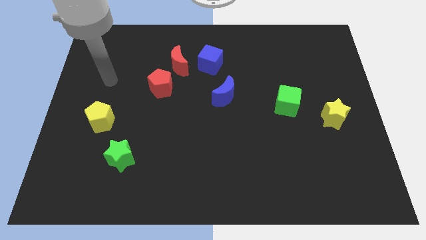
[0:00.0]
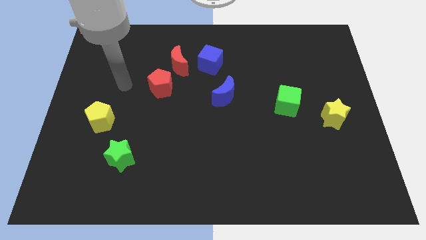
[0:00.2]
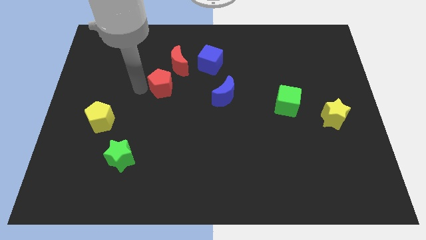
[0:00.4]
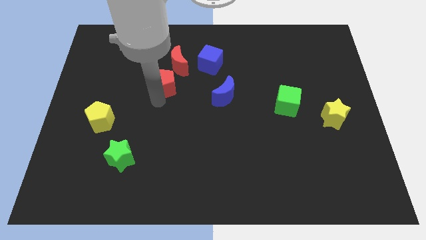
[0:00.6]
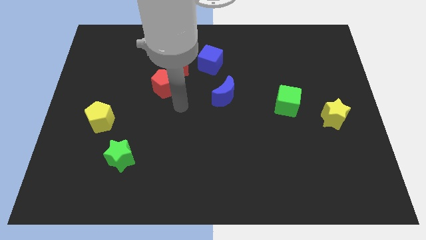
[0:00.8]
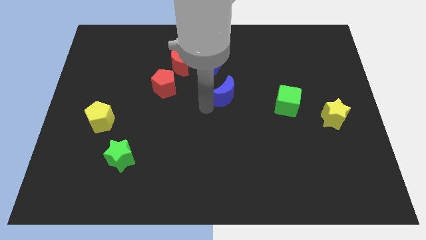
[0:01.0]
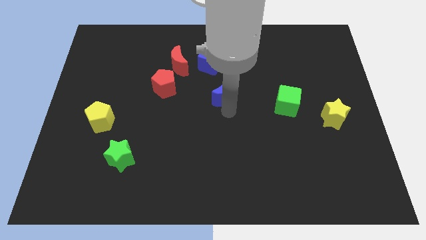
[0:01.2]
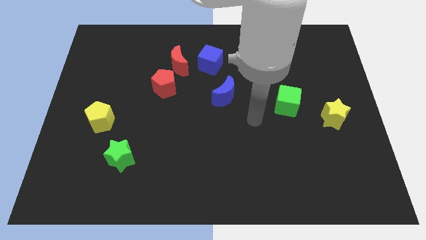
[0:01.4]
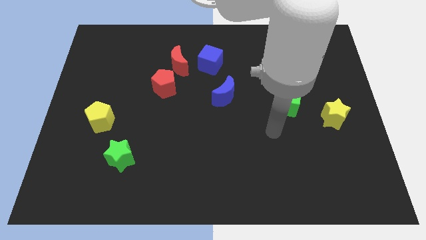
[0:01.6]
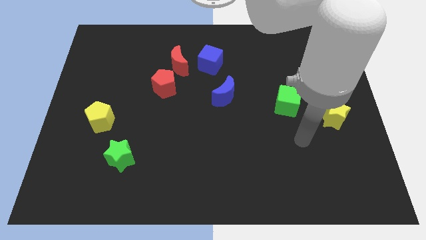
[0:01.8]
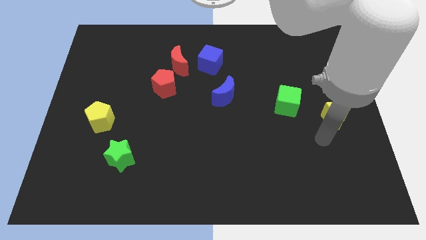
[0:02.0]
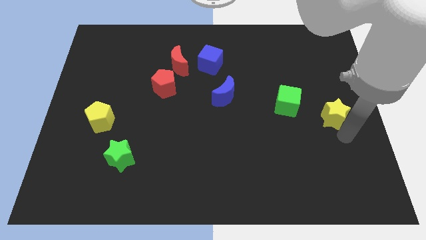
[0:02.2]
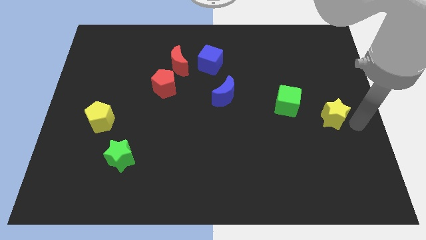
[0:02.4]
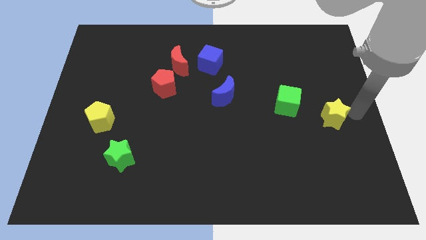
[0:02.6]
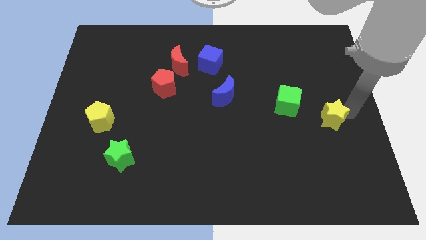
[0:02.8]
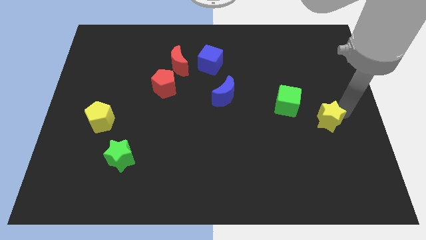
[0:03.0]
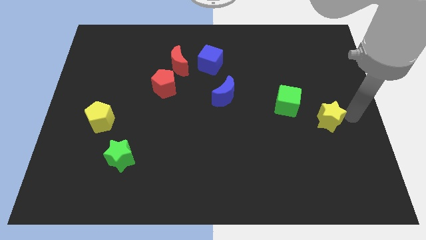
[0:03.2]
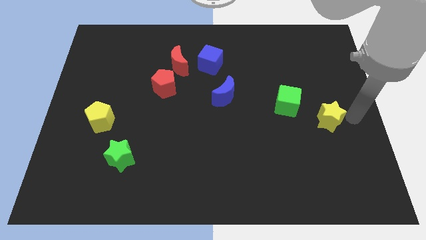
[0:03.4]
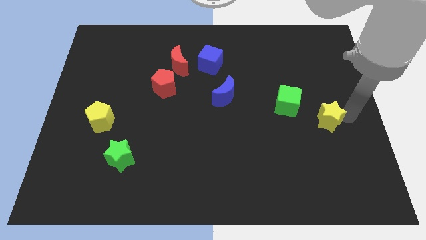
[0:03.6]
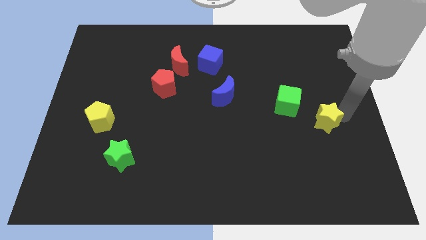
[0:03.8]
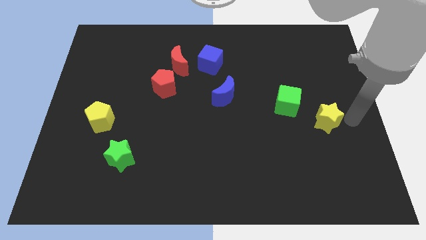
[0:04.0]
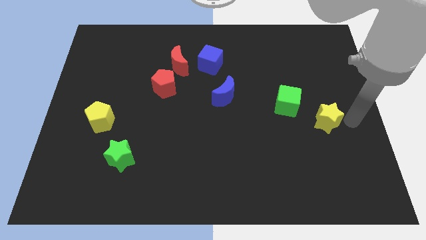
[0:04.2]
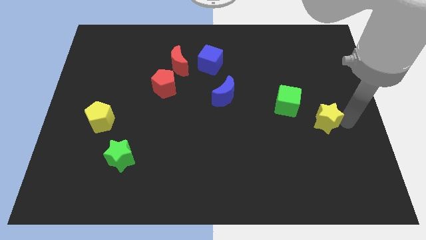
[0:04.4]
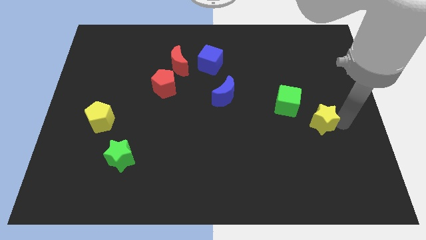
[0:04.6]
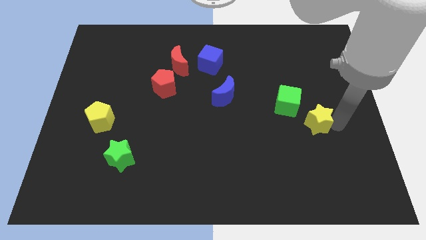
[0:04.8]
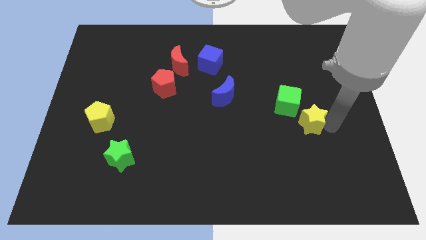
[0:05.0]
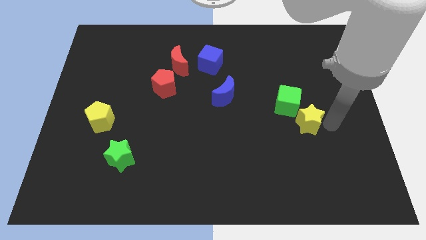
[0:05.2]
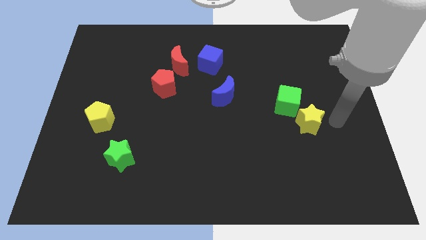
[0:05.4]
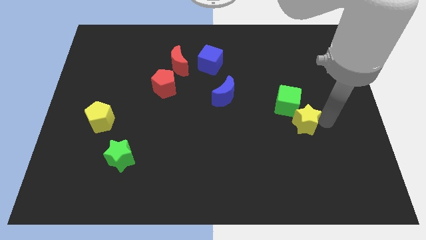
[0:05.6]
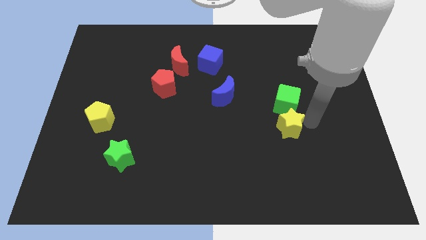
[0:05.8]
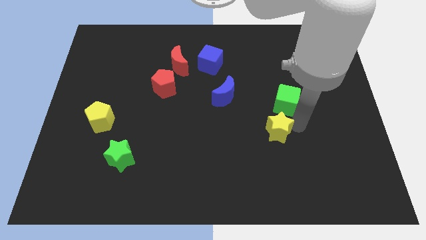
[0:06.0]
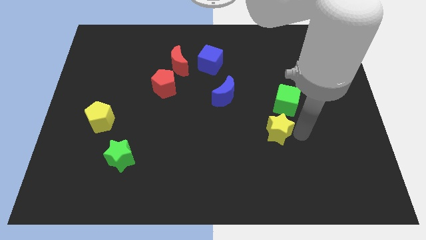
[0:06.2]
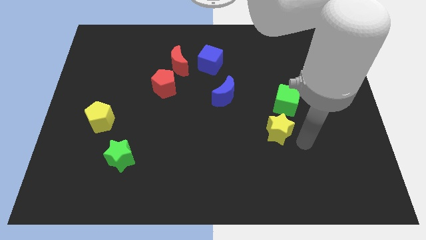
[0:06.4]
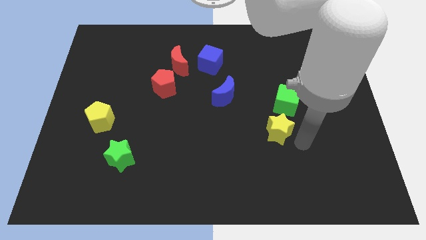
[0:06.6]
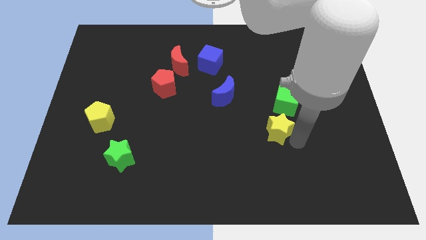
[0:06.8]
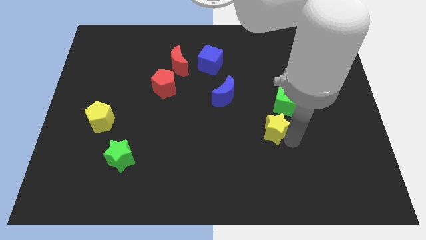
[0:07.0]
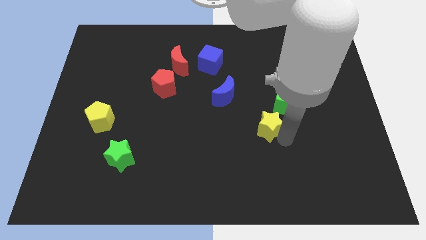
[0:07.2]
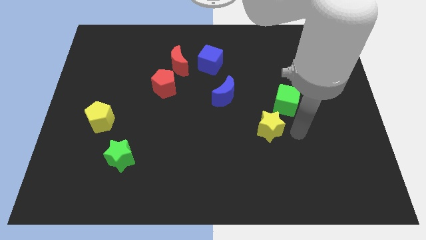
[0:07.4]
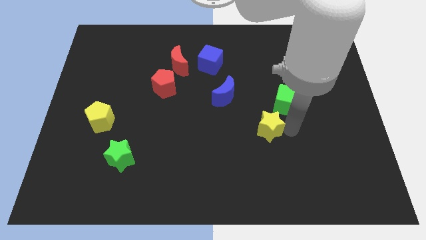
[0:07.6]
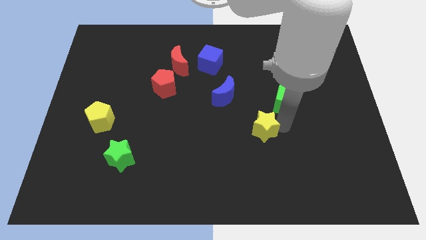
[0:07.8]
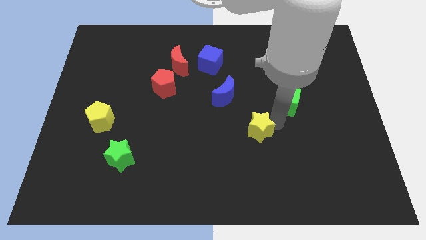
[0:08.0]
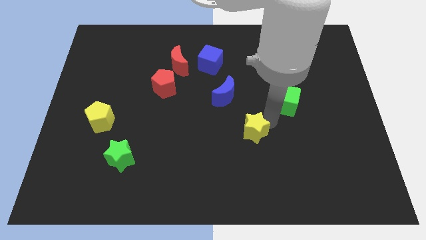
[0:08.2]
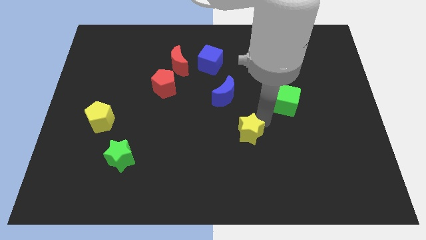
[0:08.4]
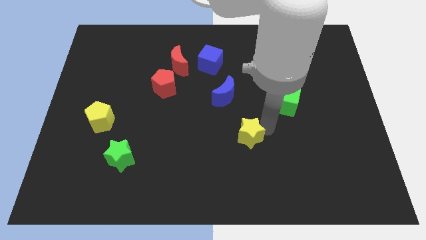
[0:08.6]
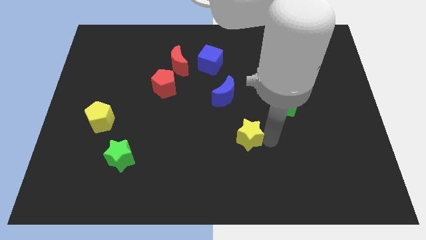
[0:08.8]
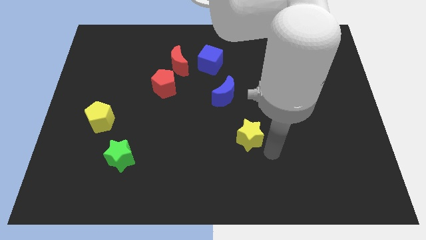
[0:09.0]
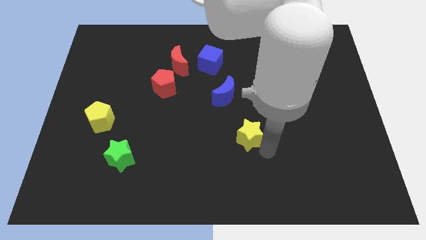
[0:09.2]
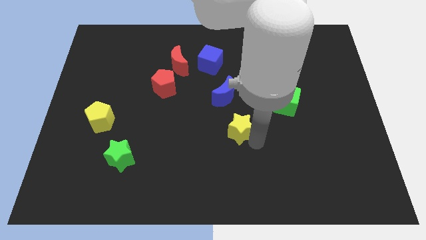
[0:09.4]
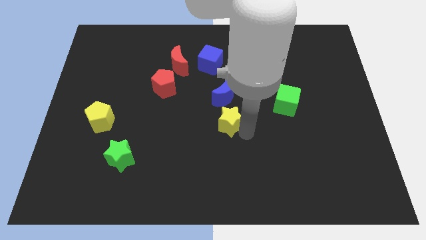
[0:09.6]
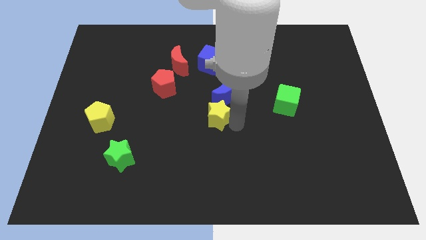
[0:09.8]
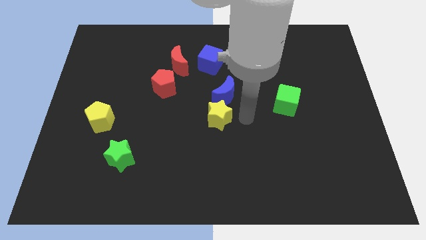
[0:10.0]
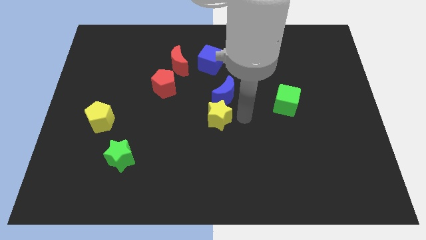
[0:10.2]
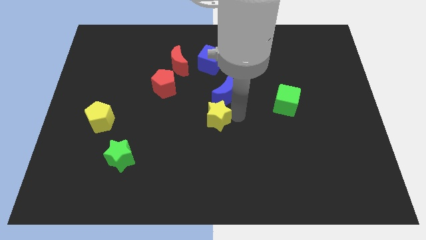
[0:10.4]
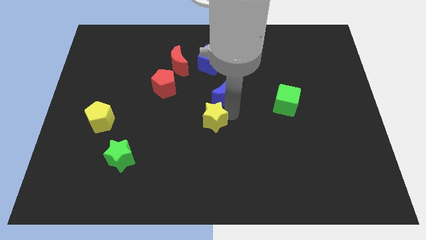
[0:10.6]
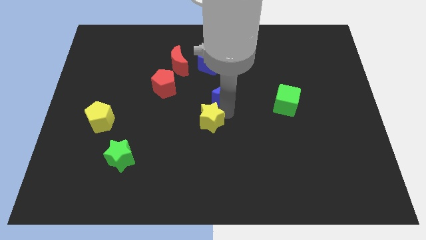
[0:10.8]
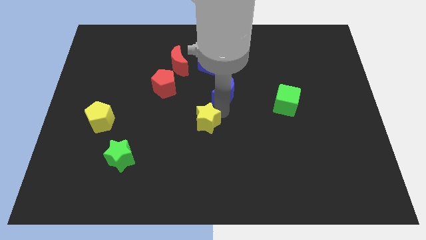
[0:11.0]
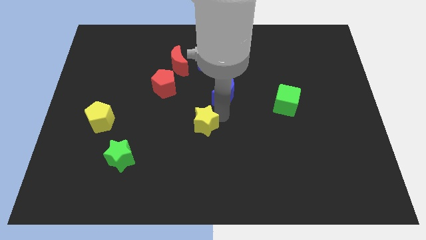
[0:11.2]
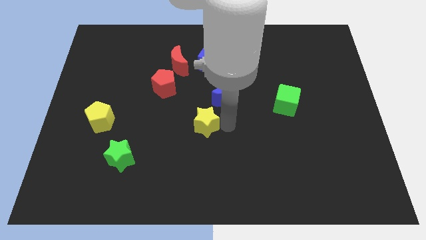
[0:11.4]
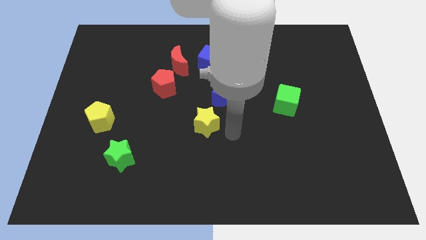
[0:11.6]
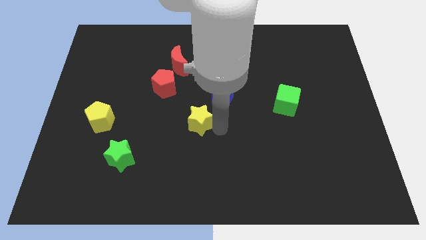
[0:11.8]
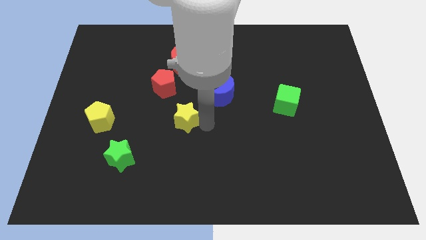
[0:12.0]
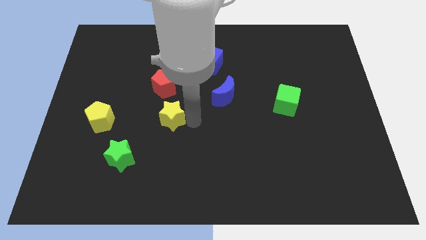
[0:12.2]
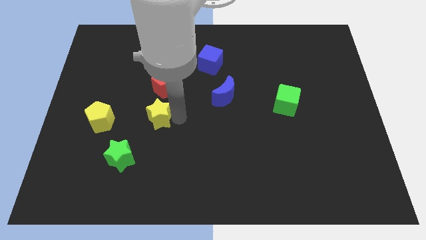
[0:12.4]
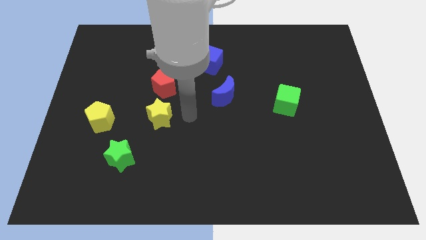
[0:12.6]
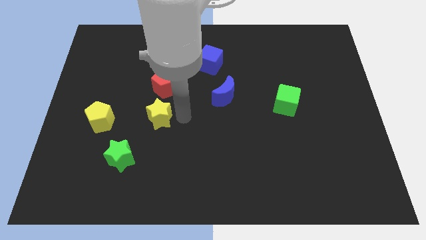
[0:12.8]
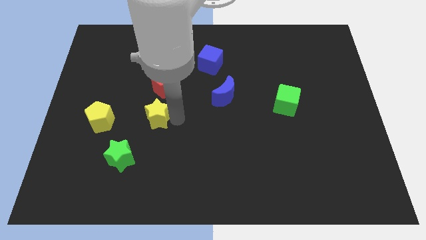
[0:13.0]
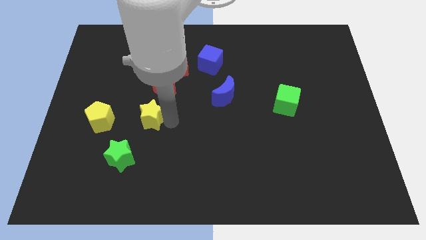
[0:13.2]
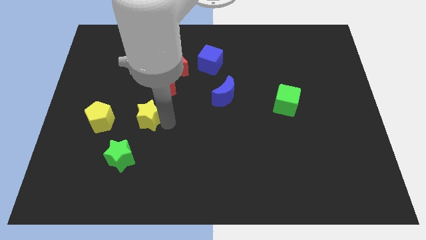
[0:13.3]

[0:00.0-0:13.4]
push the yellow star to the top of the green star
